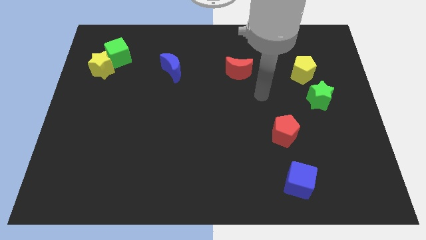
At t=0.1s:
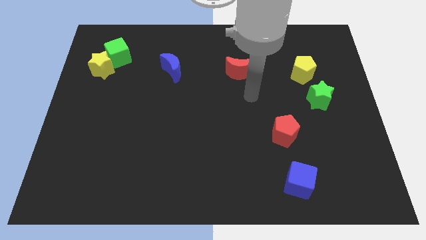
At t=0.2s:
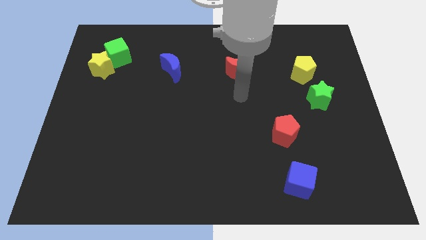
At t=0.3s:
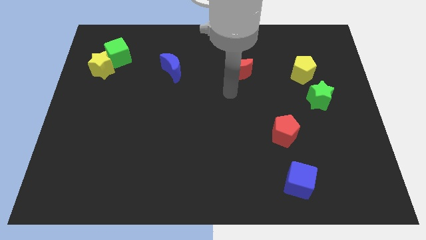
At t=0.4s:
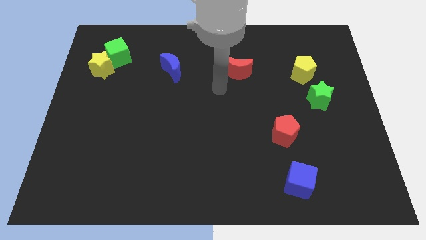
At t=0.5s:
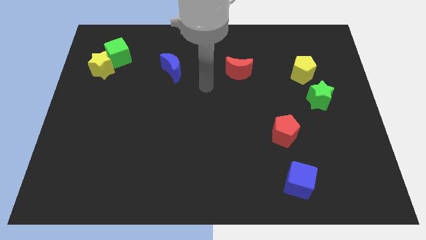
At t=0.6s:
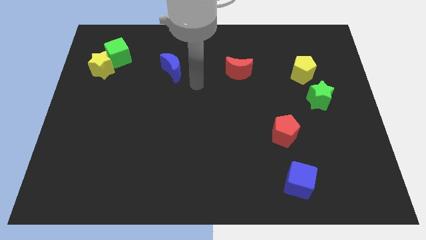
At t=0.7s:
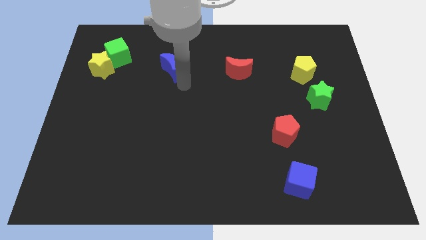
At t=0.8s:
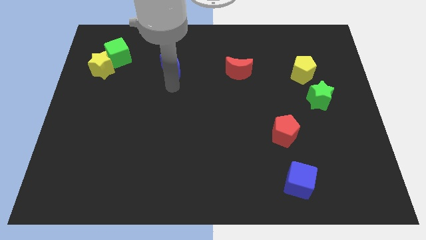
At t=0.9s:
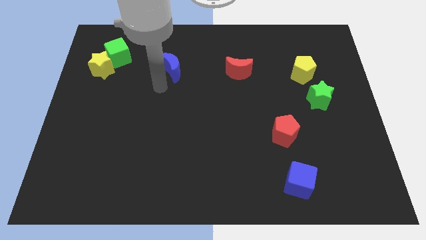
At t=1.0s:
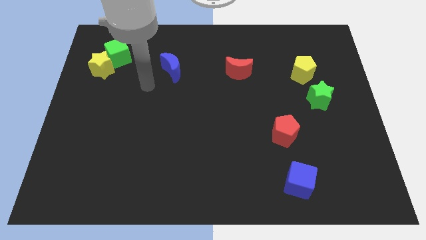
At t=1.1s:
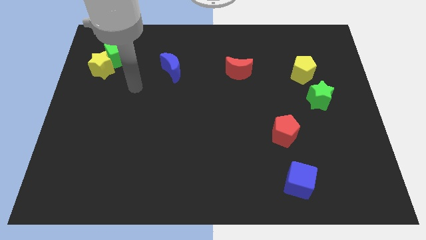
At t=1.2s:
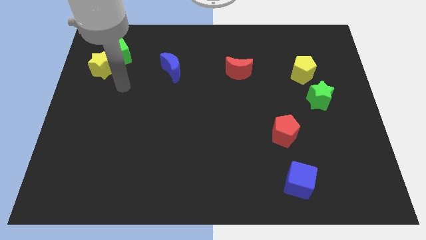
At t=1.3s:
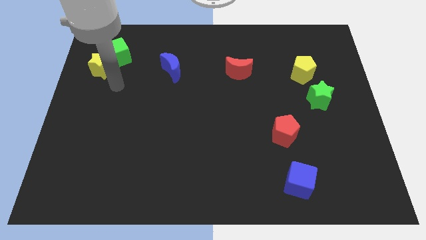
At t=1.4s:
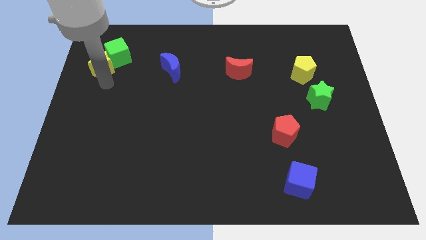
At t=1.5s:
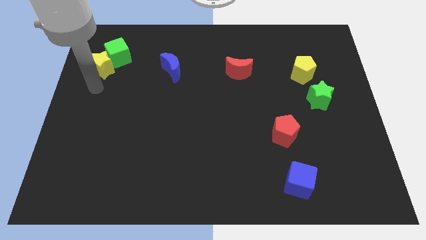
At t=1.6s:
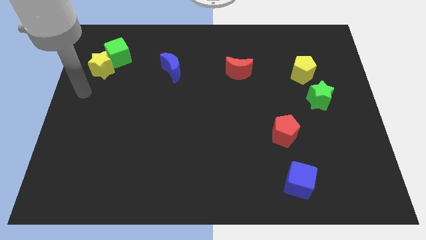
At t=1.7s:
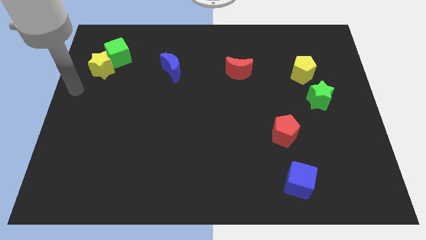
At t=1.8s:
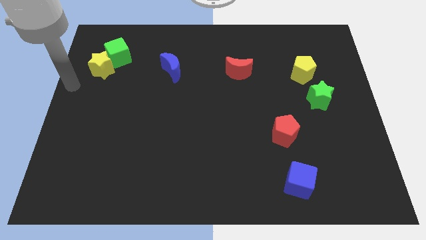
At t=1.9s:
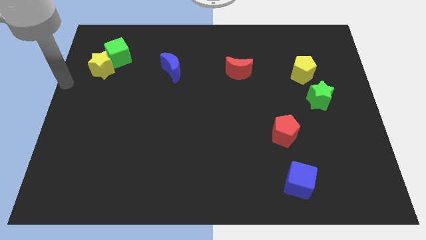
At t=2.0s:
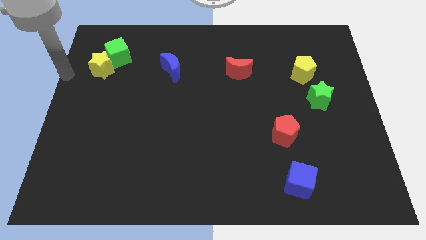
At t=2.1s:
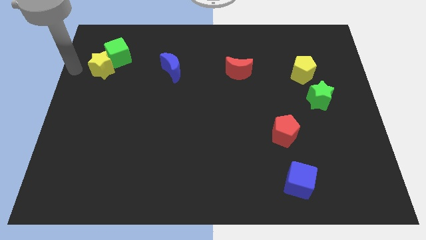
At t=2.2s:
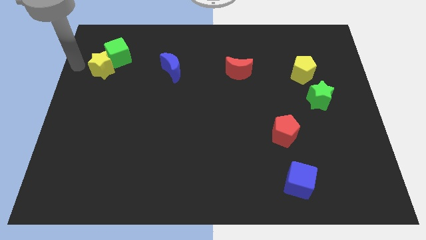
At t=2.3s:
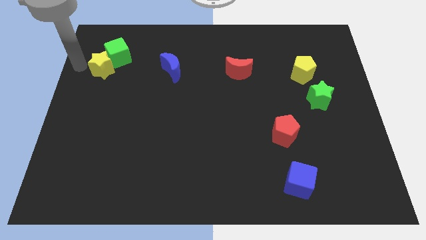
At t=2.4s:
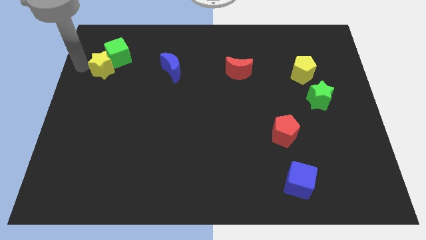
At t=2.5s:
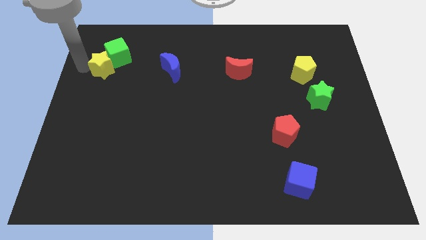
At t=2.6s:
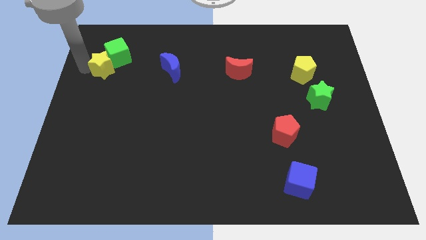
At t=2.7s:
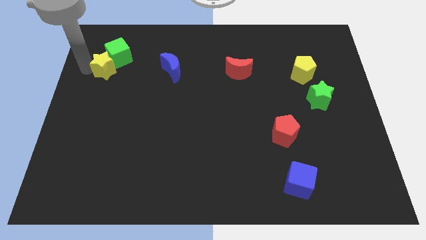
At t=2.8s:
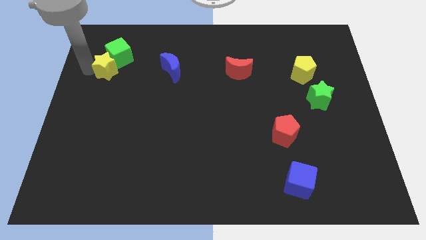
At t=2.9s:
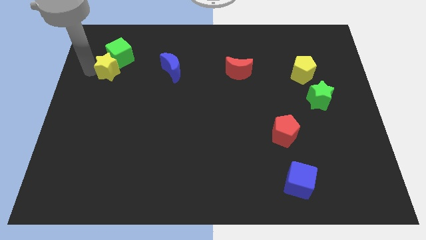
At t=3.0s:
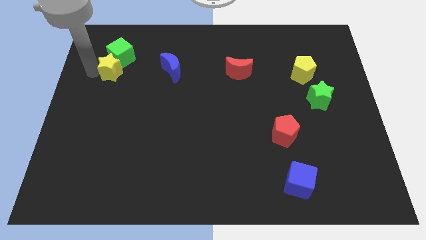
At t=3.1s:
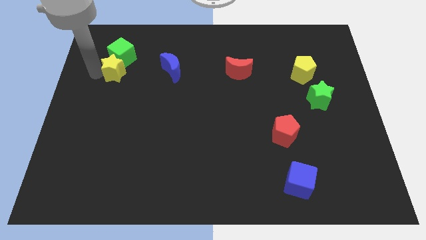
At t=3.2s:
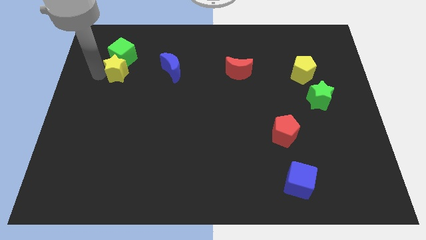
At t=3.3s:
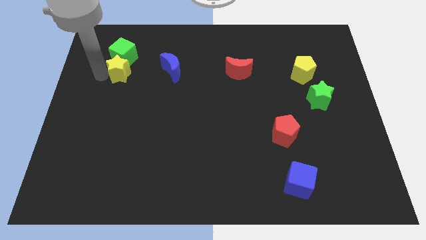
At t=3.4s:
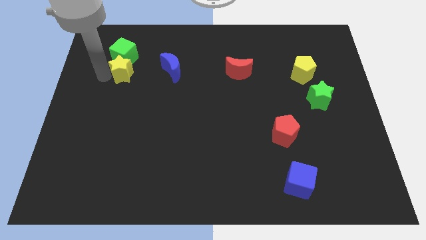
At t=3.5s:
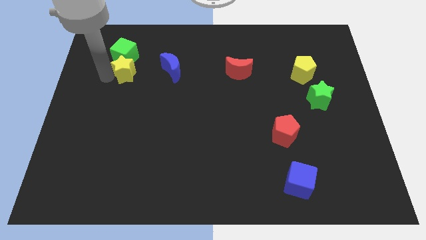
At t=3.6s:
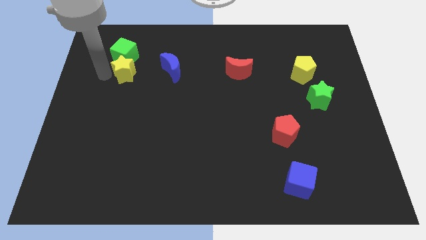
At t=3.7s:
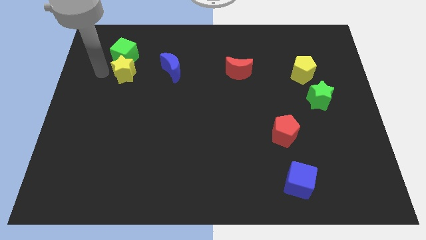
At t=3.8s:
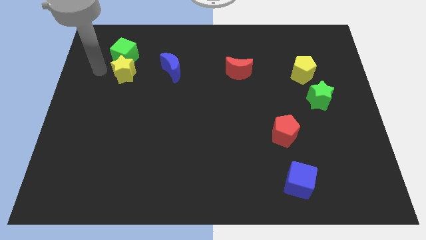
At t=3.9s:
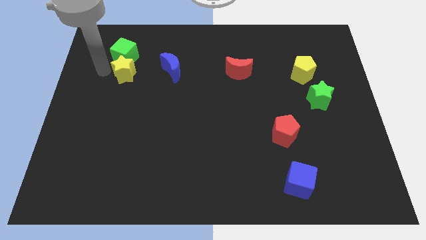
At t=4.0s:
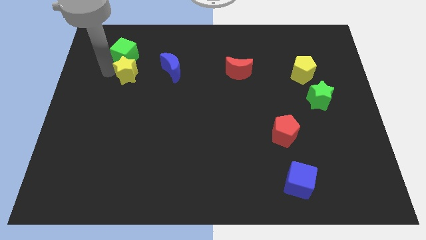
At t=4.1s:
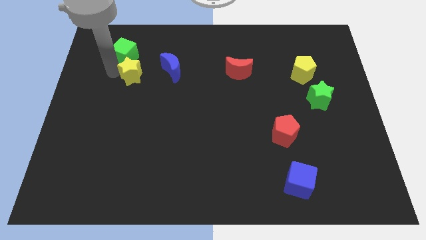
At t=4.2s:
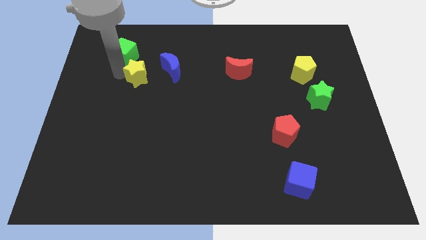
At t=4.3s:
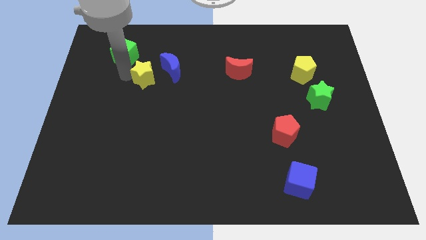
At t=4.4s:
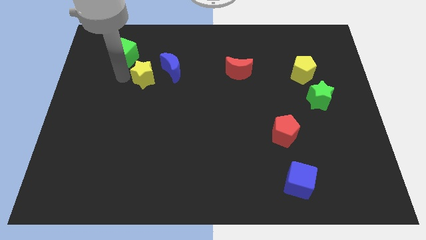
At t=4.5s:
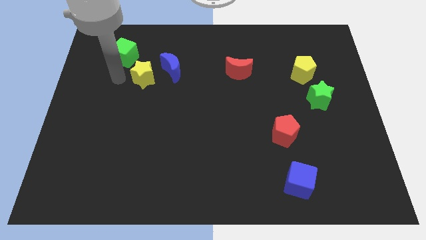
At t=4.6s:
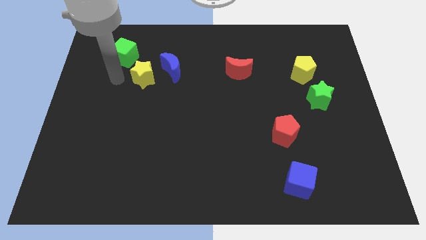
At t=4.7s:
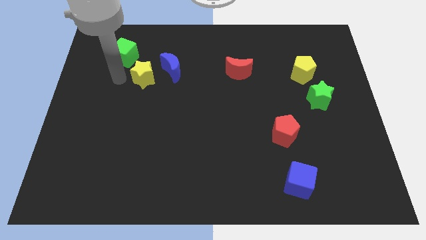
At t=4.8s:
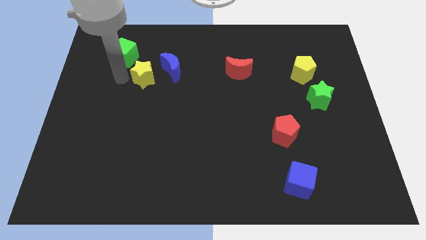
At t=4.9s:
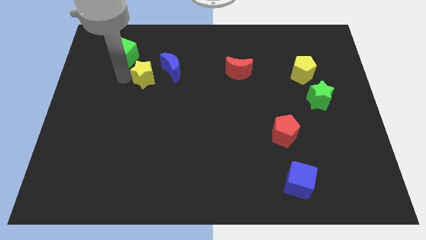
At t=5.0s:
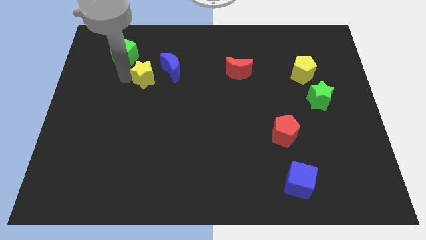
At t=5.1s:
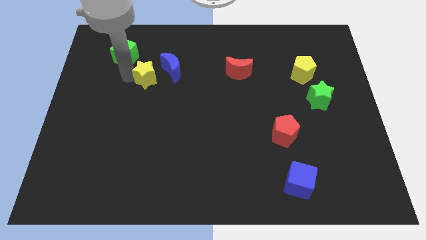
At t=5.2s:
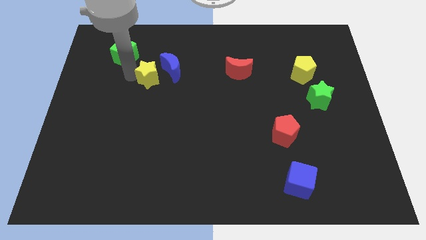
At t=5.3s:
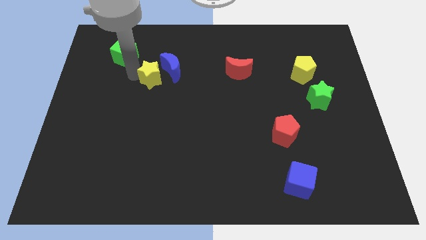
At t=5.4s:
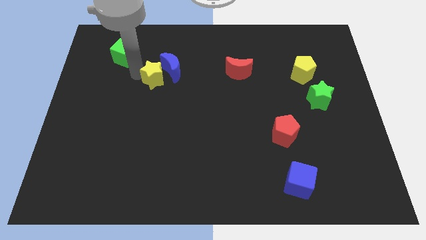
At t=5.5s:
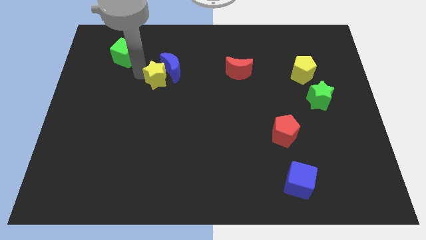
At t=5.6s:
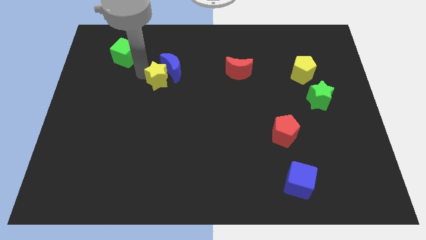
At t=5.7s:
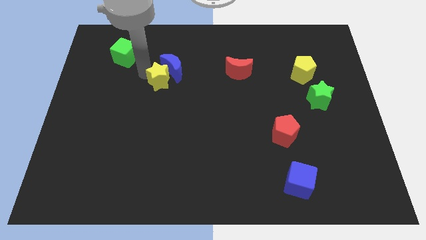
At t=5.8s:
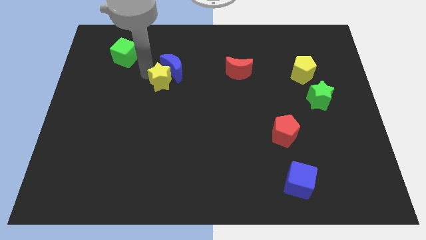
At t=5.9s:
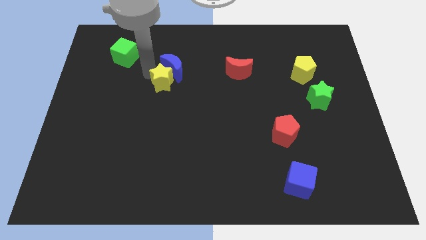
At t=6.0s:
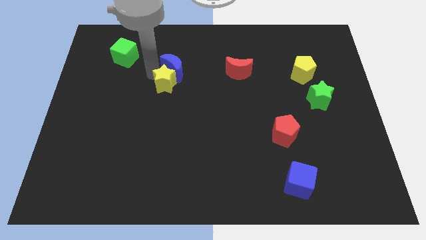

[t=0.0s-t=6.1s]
push the yellow star to the bottom right of the blue moon

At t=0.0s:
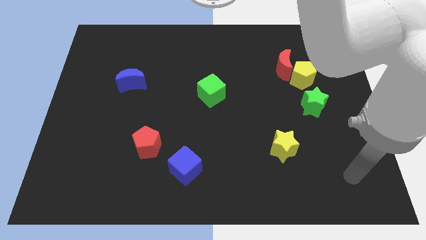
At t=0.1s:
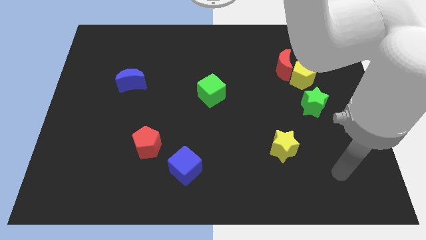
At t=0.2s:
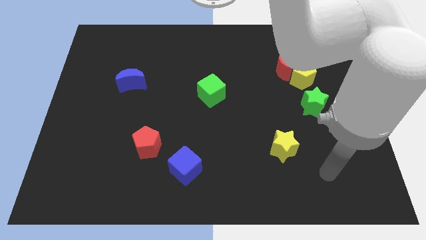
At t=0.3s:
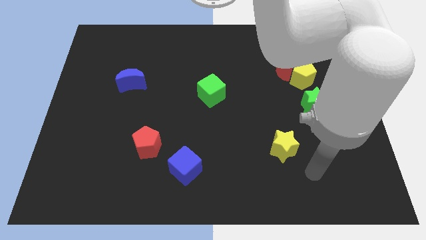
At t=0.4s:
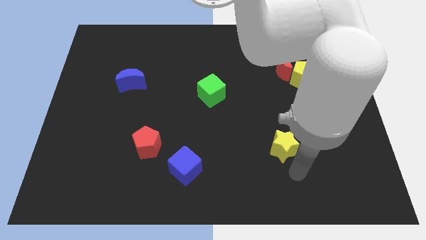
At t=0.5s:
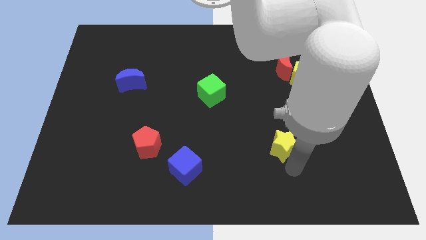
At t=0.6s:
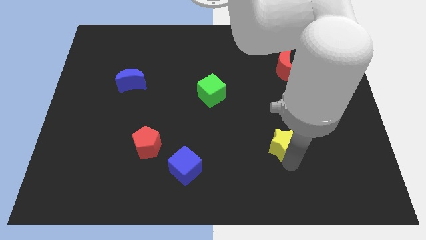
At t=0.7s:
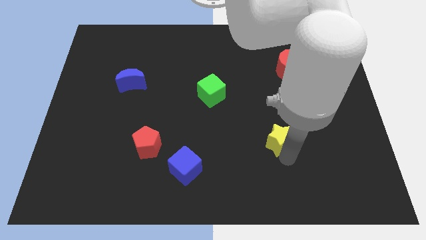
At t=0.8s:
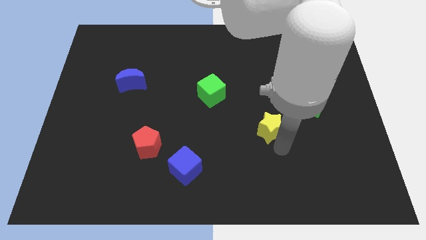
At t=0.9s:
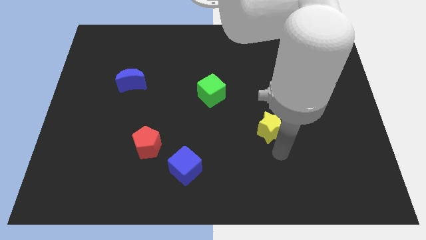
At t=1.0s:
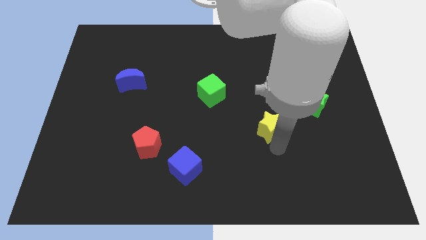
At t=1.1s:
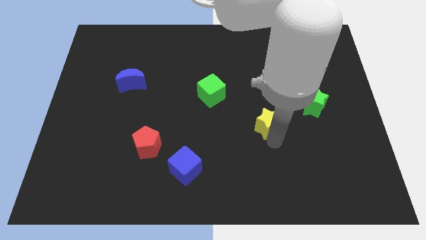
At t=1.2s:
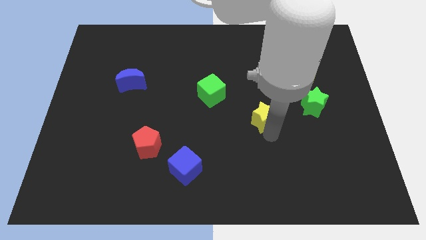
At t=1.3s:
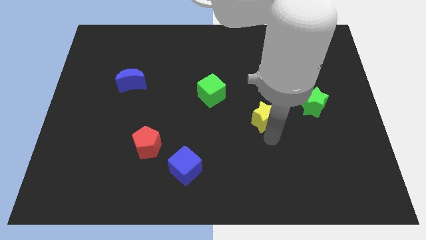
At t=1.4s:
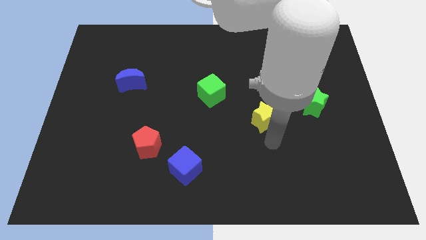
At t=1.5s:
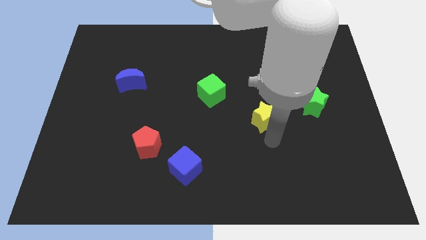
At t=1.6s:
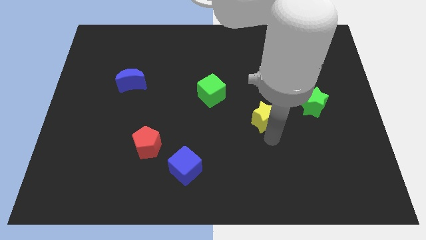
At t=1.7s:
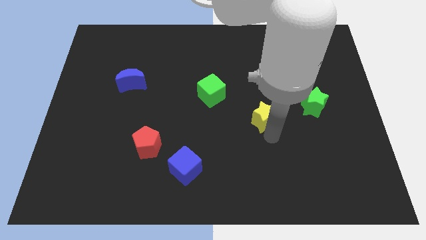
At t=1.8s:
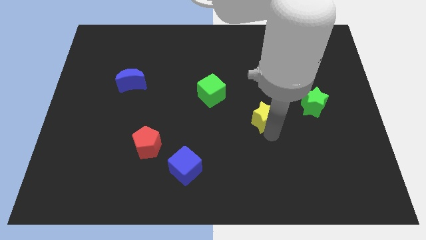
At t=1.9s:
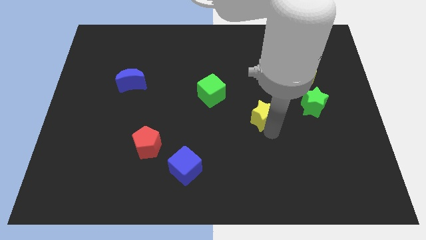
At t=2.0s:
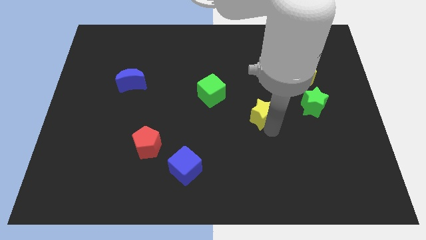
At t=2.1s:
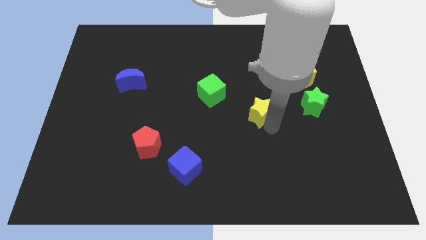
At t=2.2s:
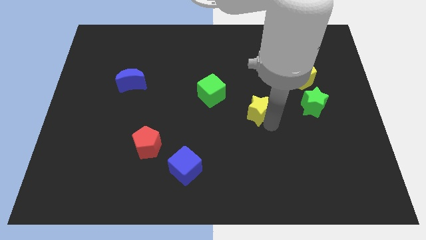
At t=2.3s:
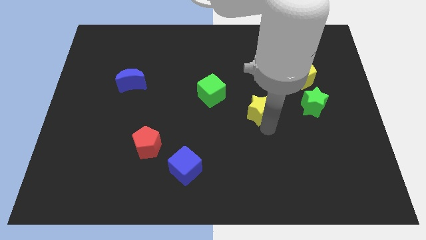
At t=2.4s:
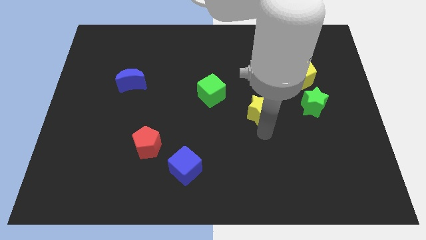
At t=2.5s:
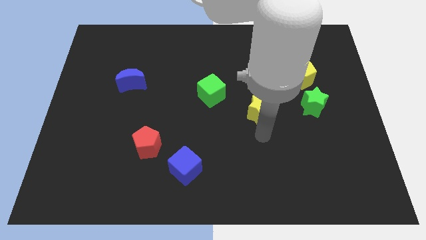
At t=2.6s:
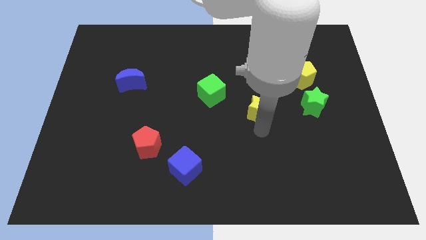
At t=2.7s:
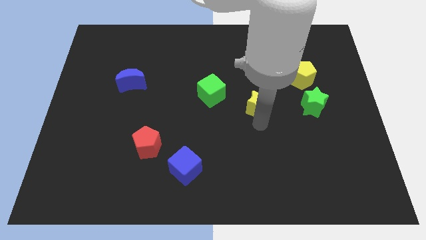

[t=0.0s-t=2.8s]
move the yellow star to the right side of the green cube
